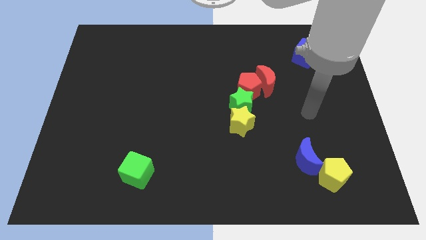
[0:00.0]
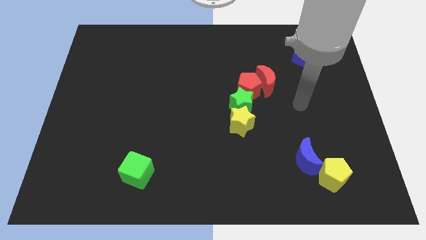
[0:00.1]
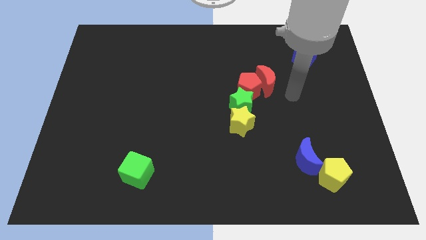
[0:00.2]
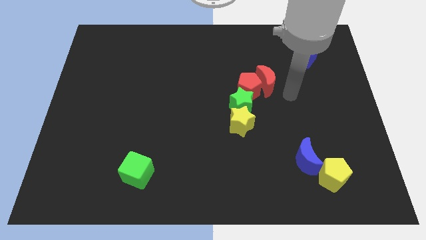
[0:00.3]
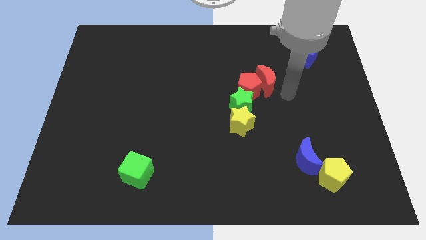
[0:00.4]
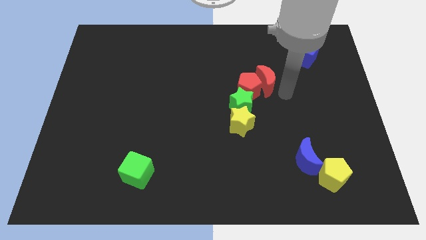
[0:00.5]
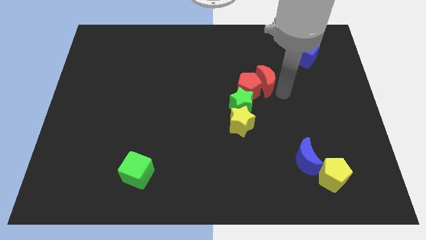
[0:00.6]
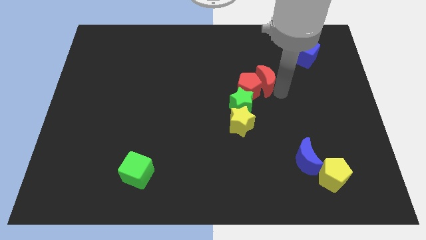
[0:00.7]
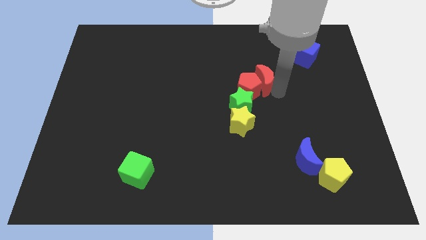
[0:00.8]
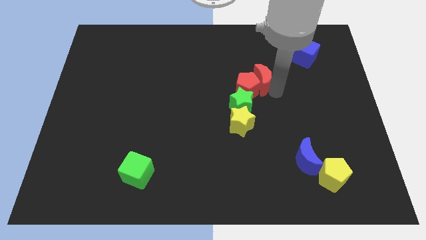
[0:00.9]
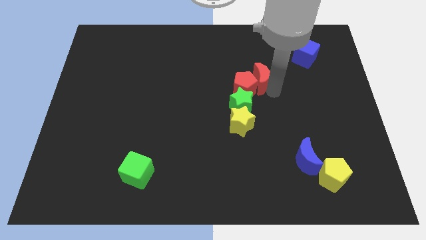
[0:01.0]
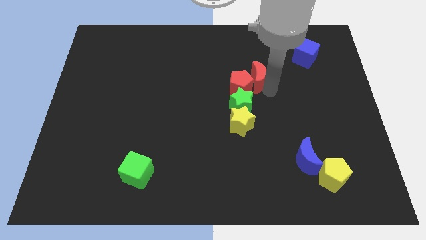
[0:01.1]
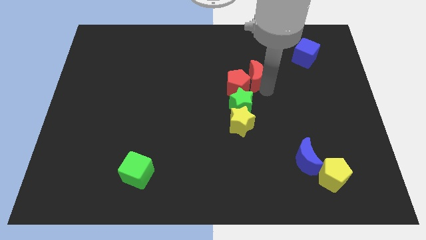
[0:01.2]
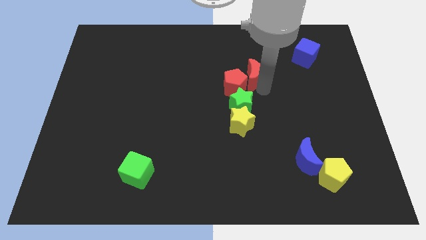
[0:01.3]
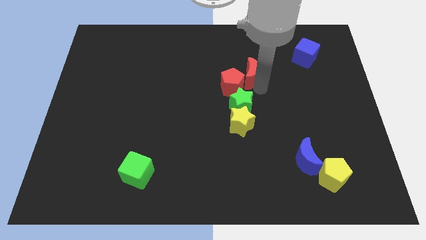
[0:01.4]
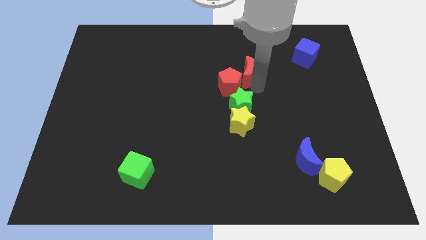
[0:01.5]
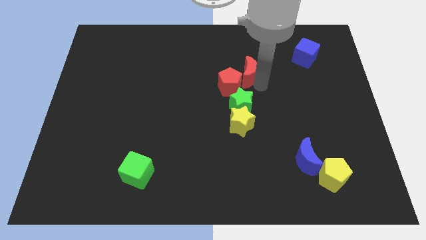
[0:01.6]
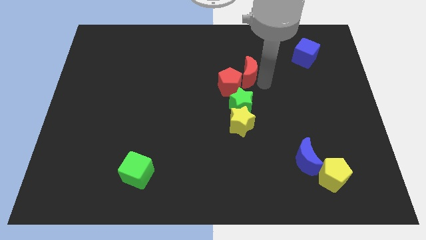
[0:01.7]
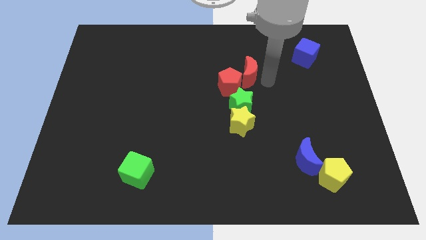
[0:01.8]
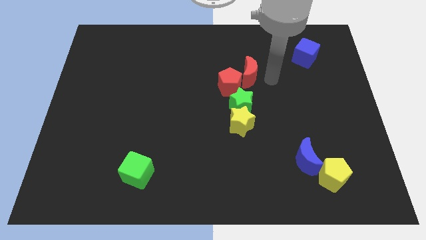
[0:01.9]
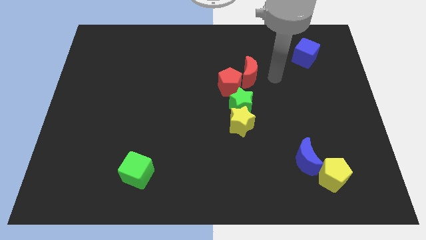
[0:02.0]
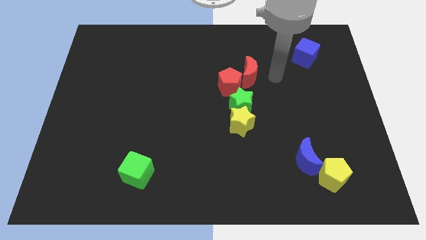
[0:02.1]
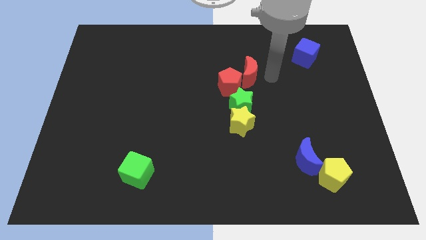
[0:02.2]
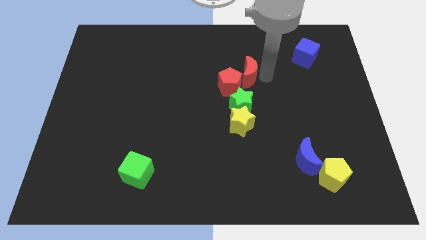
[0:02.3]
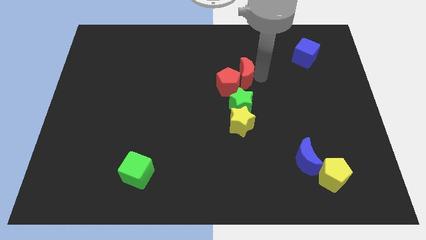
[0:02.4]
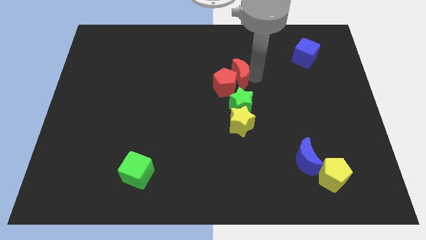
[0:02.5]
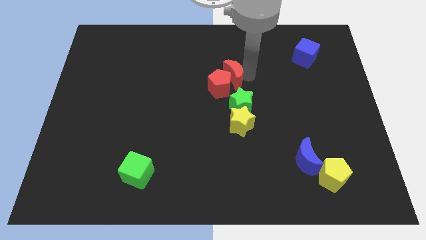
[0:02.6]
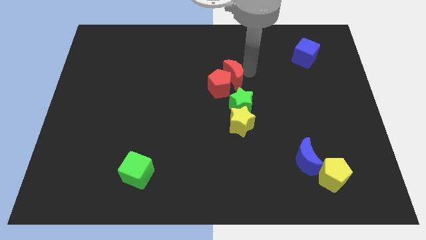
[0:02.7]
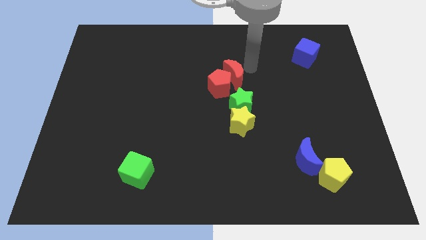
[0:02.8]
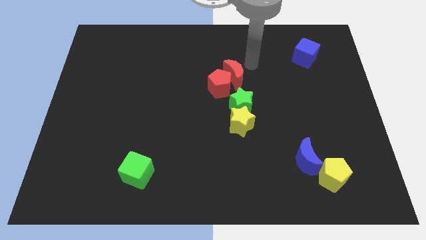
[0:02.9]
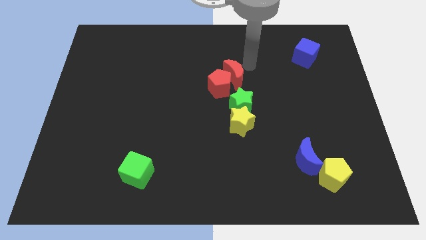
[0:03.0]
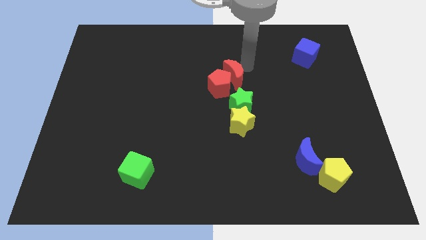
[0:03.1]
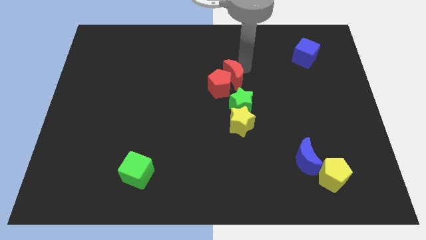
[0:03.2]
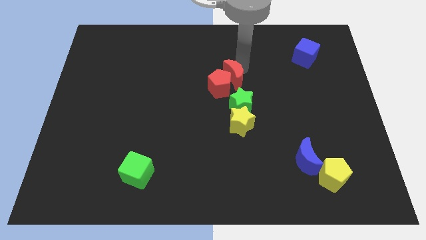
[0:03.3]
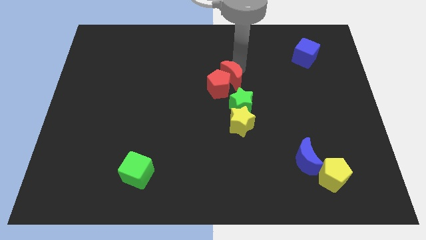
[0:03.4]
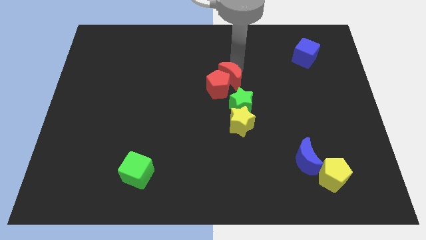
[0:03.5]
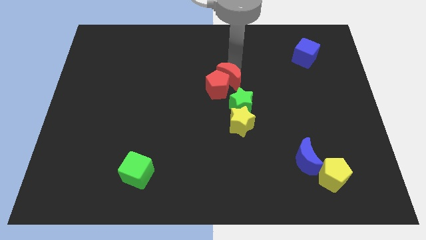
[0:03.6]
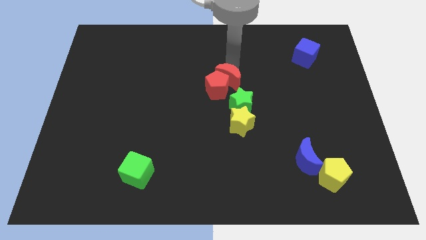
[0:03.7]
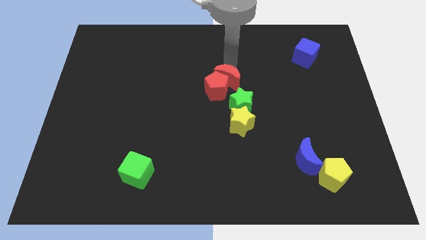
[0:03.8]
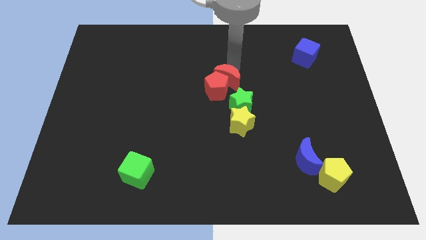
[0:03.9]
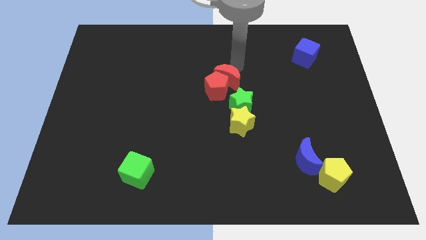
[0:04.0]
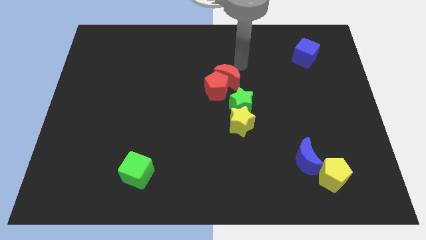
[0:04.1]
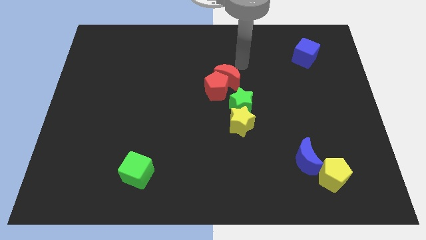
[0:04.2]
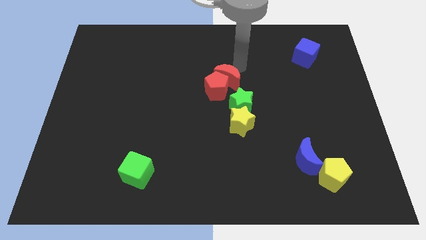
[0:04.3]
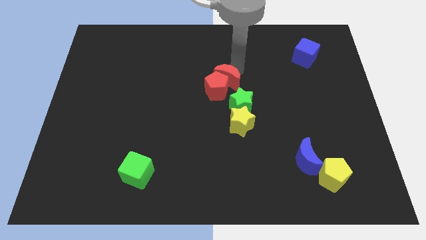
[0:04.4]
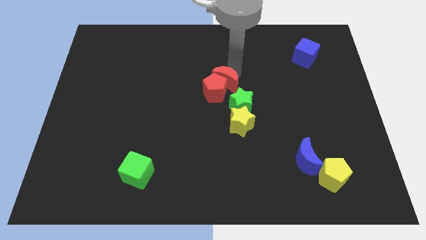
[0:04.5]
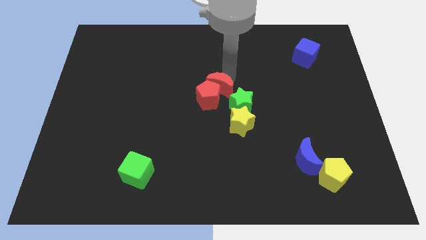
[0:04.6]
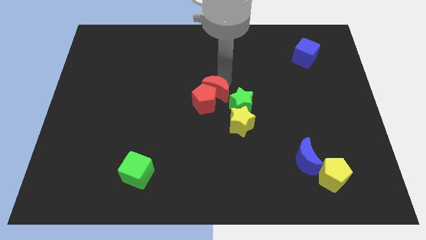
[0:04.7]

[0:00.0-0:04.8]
put the red moon to the top left side of the yellow star

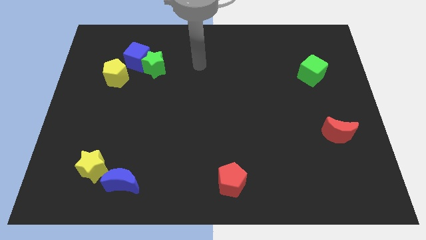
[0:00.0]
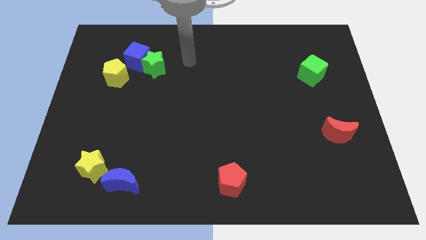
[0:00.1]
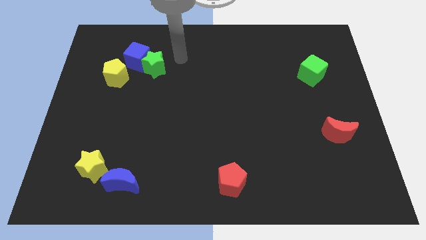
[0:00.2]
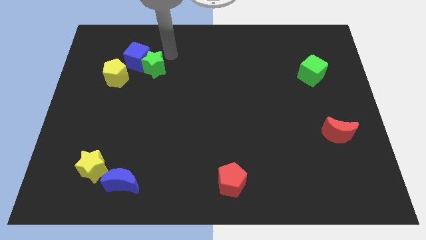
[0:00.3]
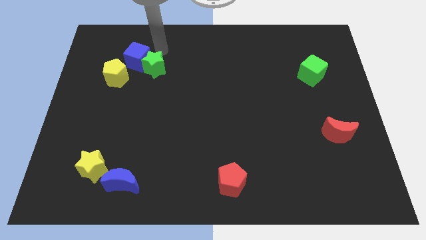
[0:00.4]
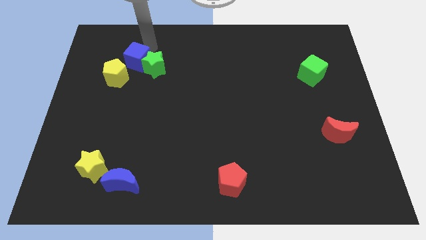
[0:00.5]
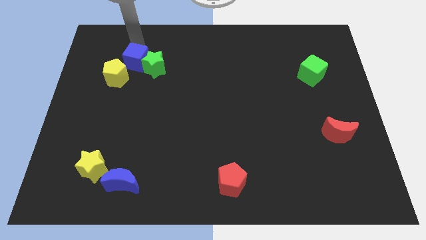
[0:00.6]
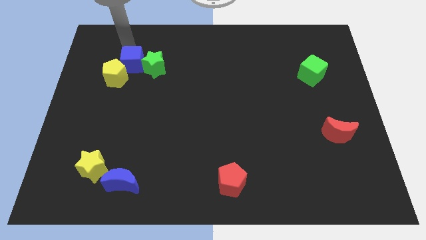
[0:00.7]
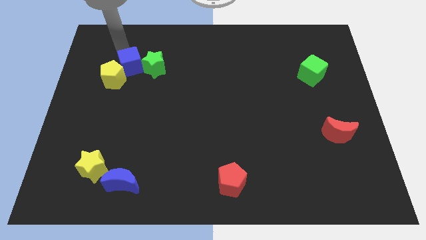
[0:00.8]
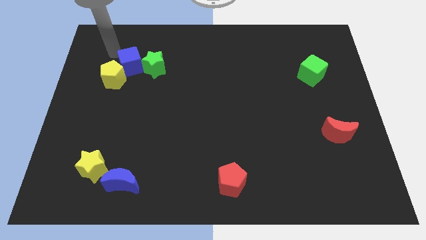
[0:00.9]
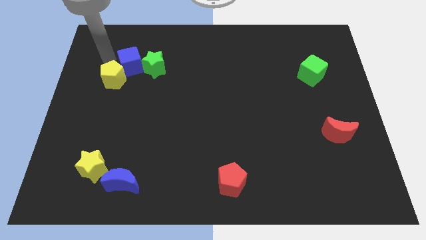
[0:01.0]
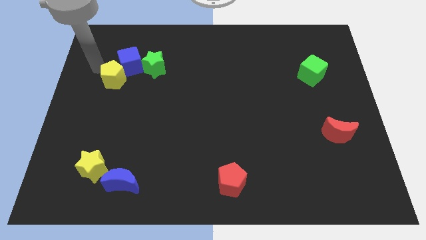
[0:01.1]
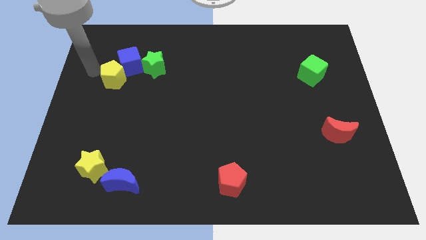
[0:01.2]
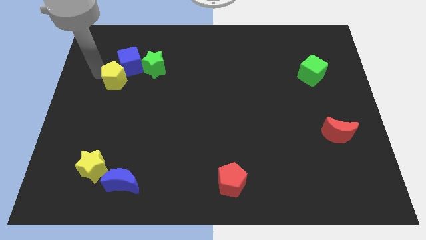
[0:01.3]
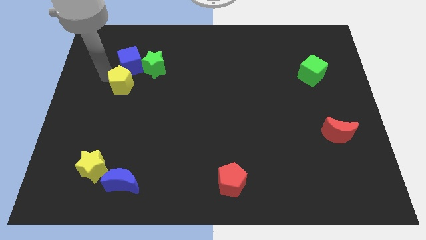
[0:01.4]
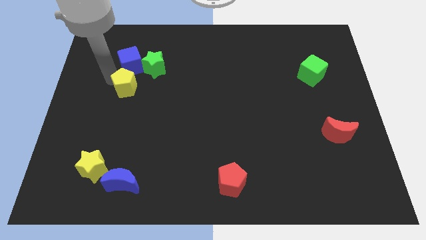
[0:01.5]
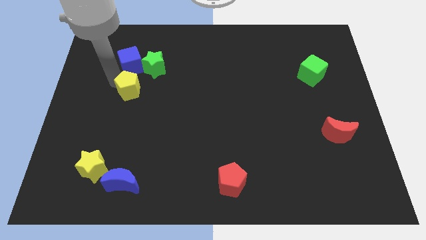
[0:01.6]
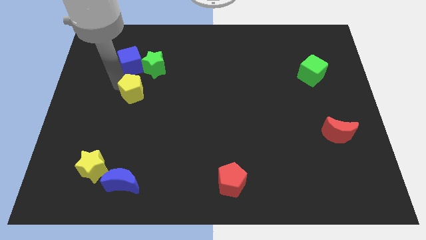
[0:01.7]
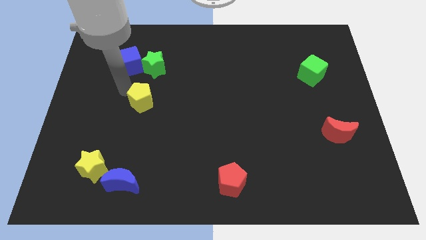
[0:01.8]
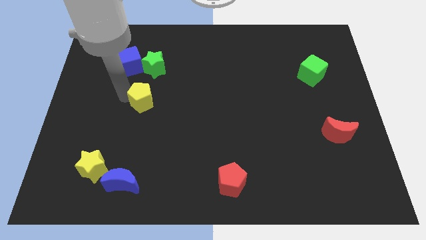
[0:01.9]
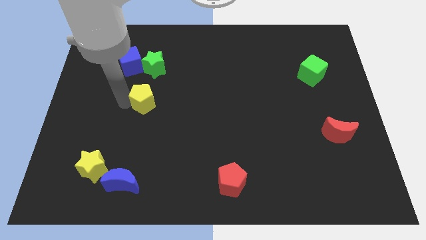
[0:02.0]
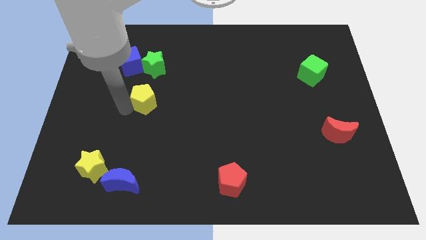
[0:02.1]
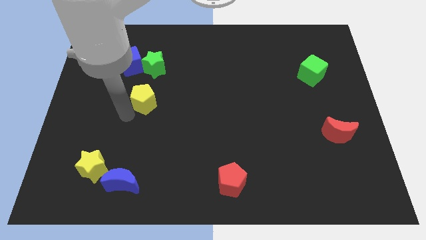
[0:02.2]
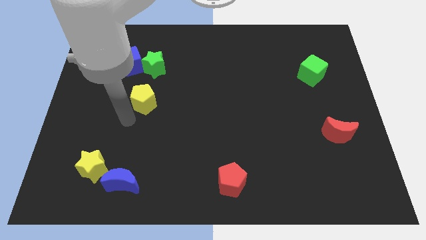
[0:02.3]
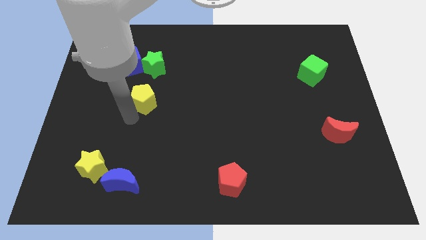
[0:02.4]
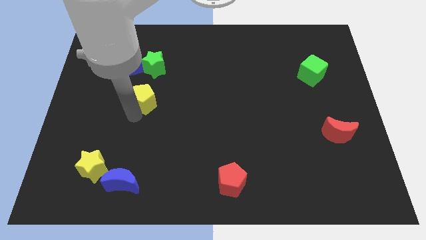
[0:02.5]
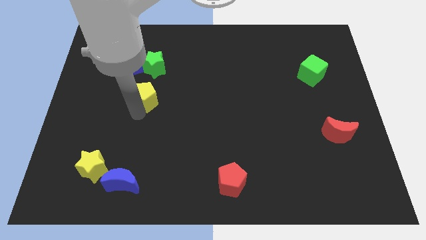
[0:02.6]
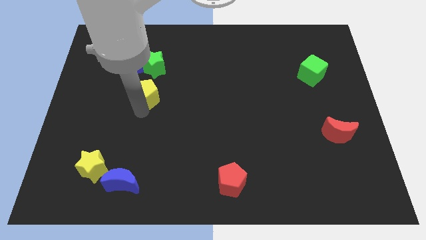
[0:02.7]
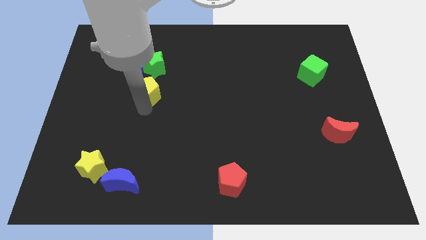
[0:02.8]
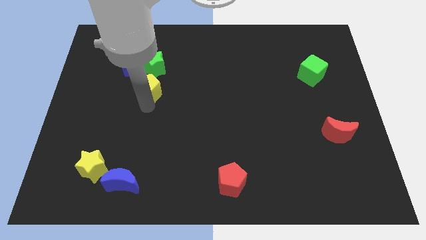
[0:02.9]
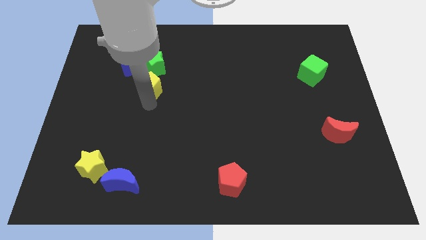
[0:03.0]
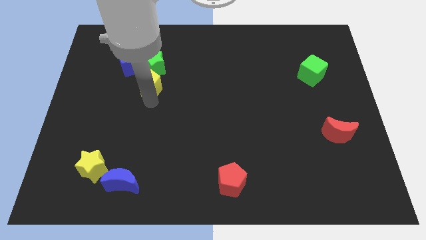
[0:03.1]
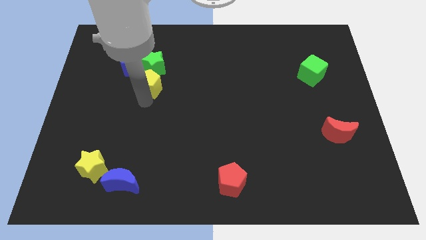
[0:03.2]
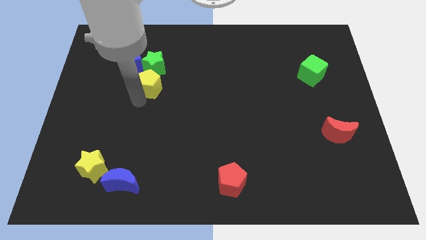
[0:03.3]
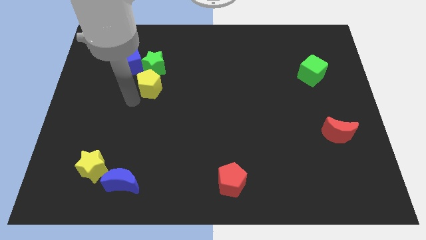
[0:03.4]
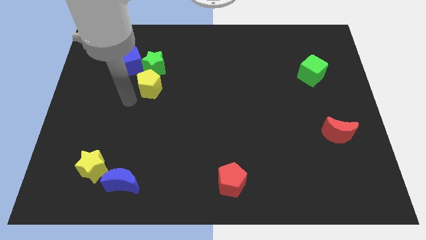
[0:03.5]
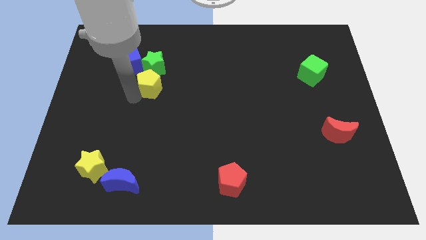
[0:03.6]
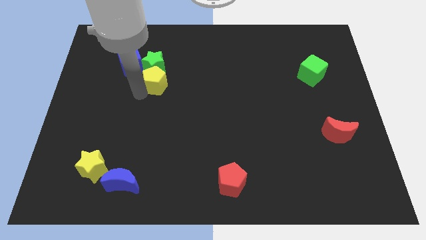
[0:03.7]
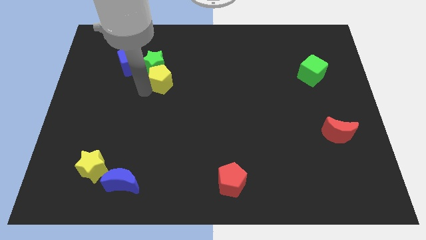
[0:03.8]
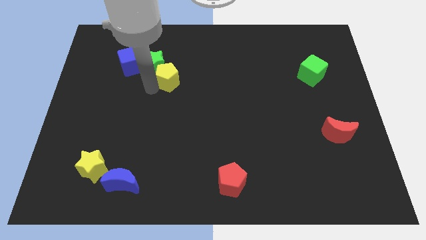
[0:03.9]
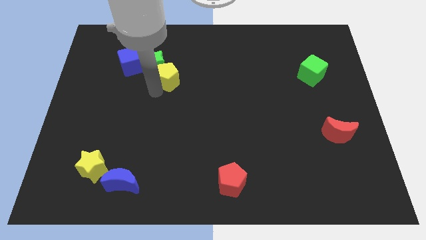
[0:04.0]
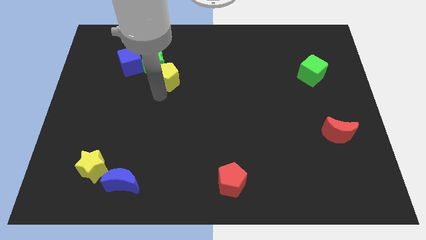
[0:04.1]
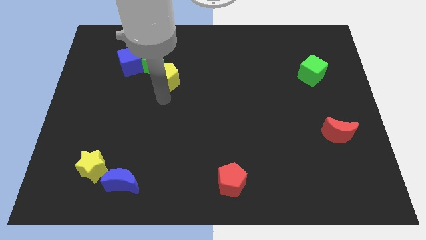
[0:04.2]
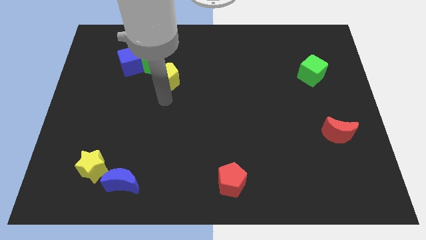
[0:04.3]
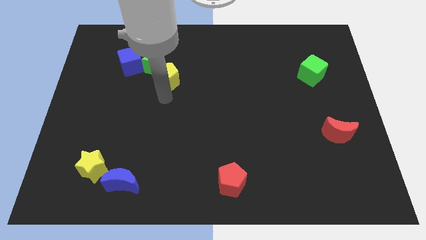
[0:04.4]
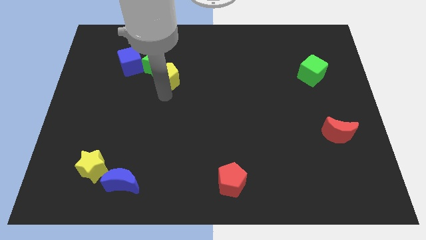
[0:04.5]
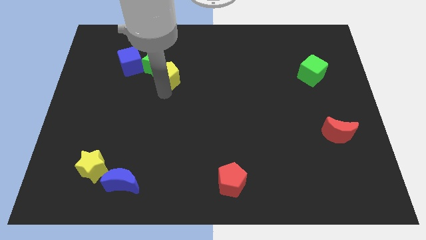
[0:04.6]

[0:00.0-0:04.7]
push the yellow pentagon to the right of the blue cube
